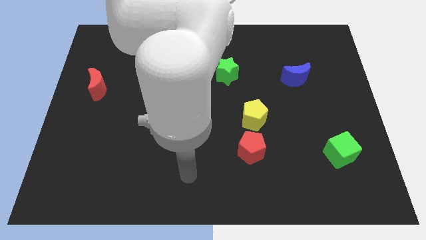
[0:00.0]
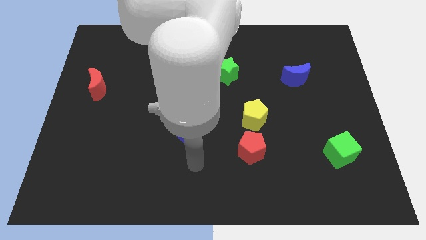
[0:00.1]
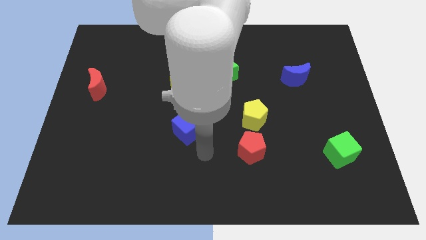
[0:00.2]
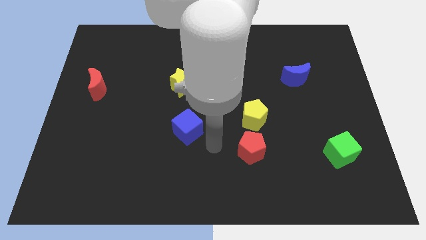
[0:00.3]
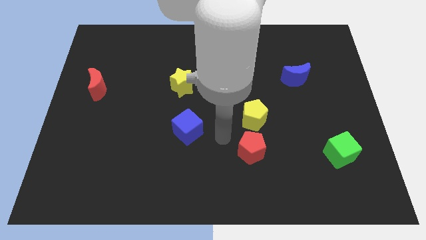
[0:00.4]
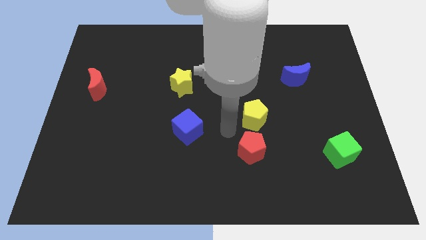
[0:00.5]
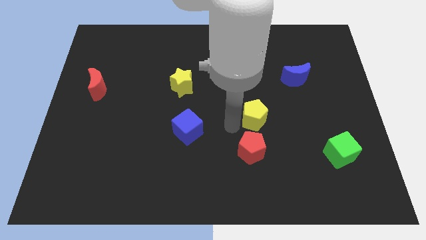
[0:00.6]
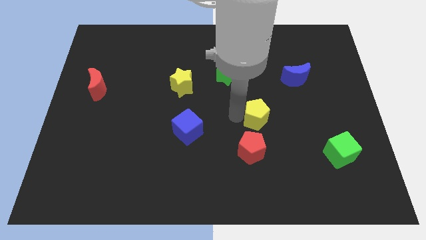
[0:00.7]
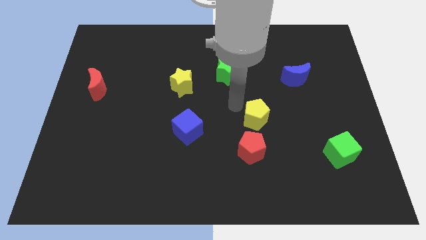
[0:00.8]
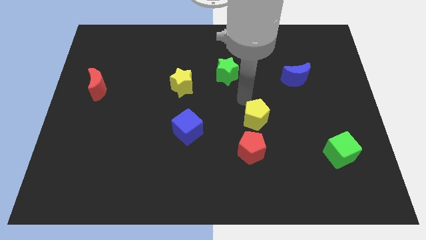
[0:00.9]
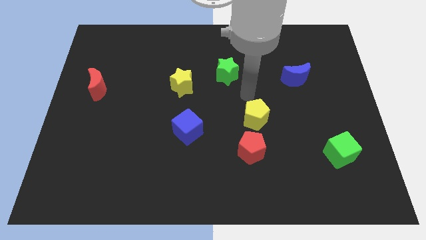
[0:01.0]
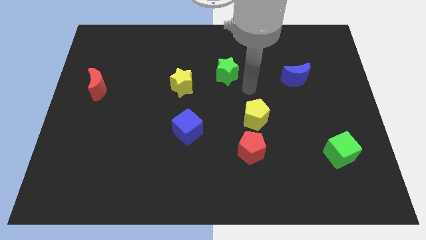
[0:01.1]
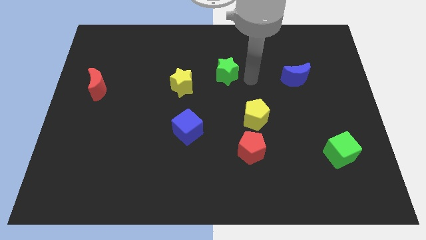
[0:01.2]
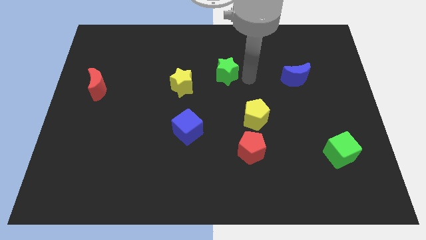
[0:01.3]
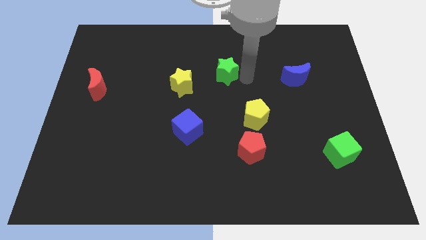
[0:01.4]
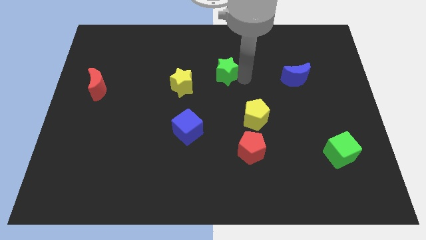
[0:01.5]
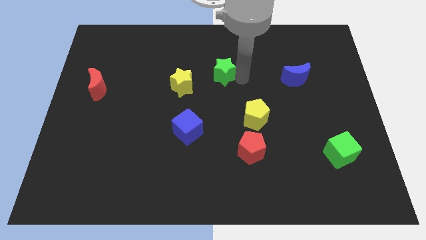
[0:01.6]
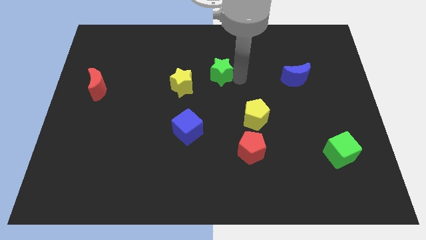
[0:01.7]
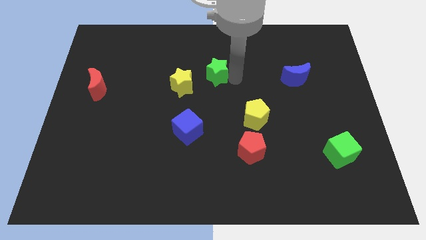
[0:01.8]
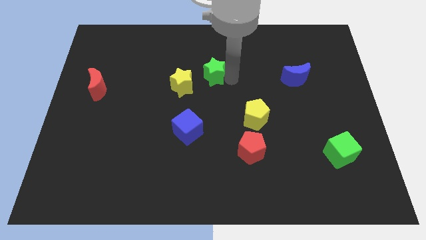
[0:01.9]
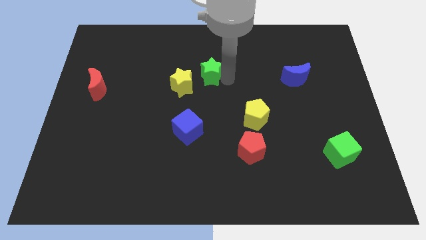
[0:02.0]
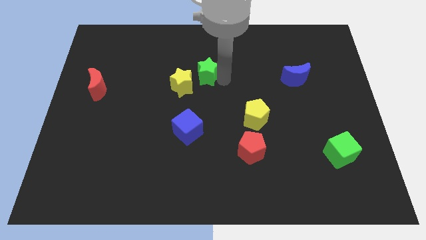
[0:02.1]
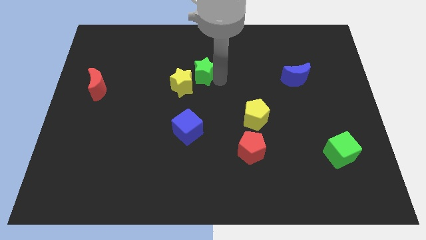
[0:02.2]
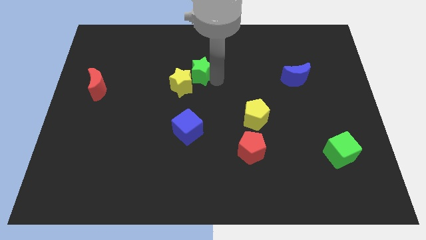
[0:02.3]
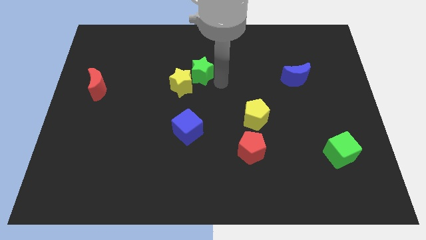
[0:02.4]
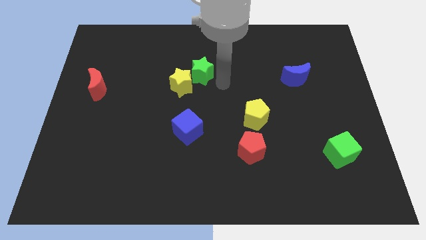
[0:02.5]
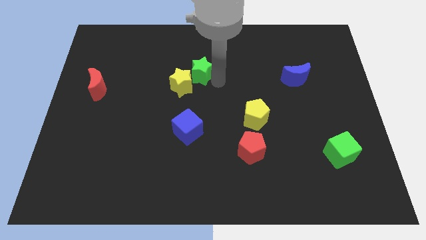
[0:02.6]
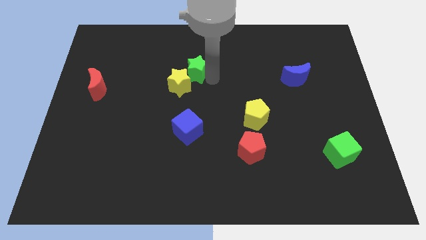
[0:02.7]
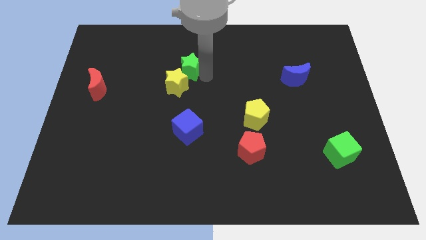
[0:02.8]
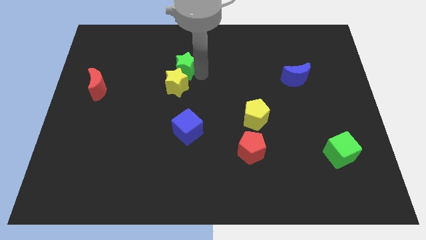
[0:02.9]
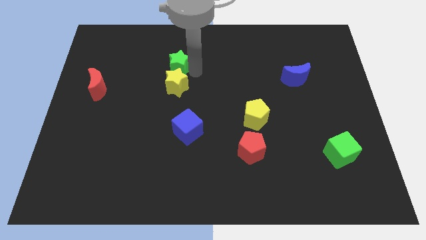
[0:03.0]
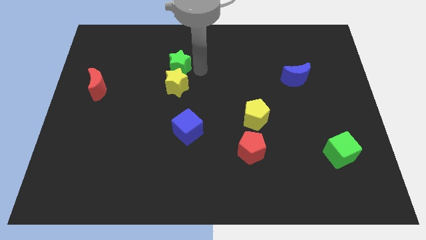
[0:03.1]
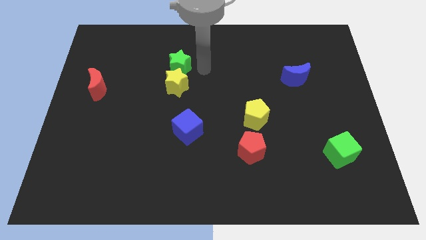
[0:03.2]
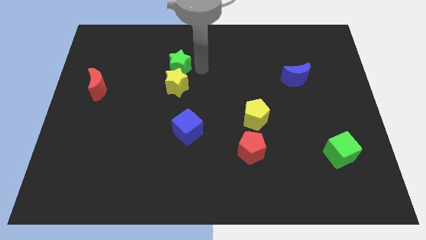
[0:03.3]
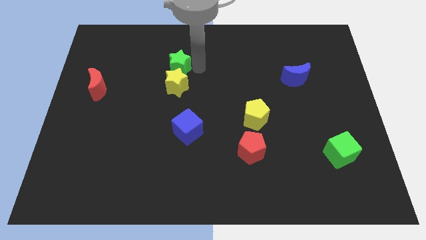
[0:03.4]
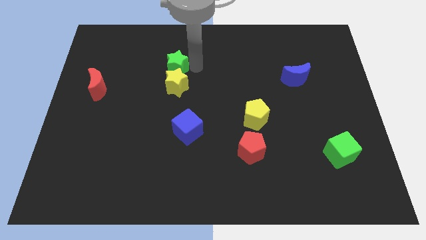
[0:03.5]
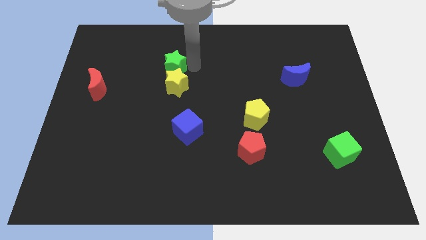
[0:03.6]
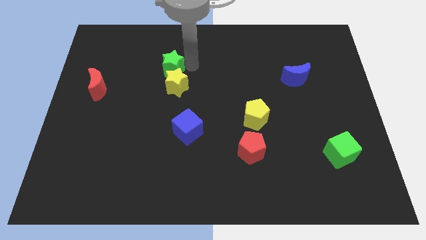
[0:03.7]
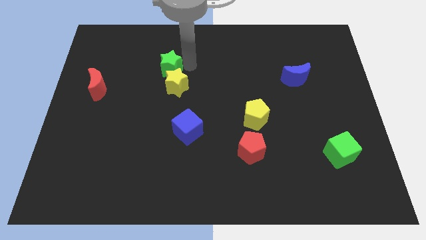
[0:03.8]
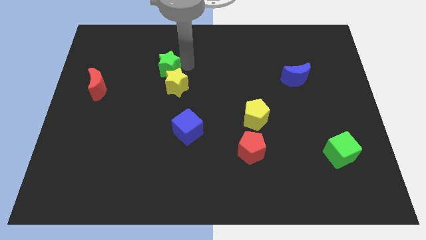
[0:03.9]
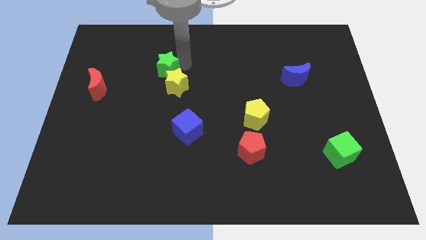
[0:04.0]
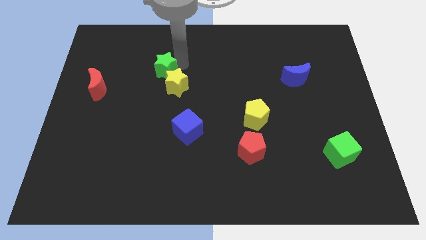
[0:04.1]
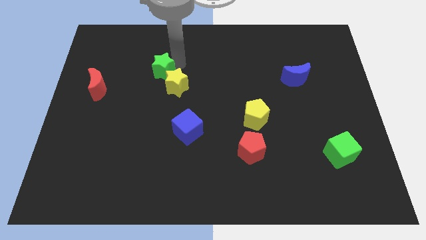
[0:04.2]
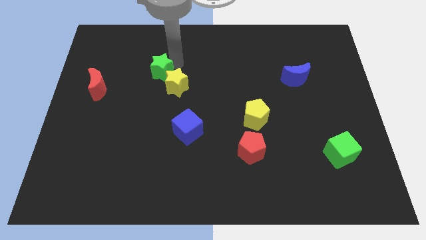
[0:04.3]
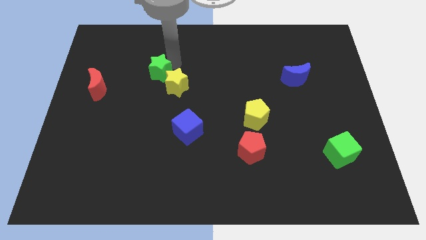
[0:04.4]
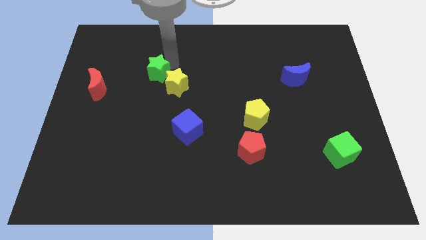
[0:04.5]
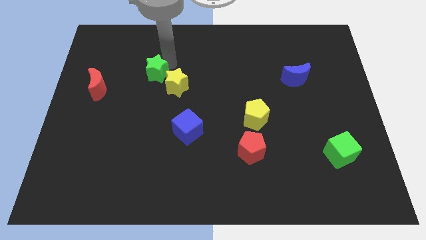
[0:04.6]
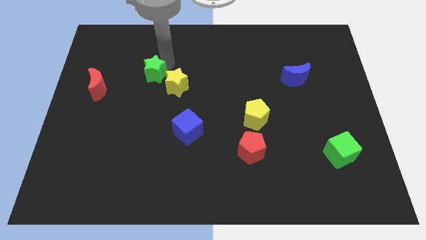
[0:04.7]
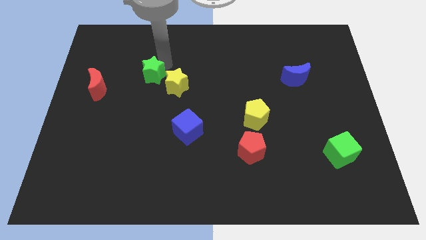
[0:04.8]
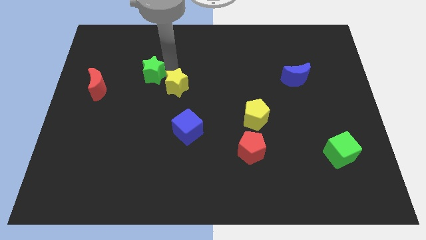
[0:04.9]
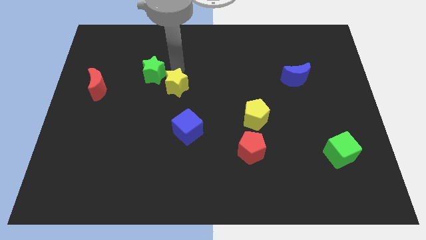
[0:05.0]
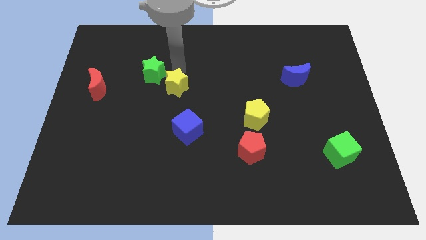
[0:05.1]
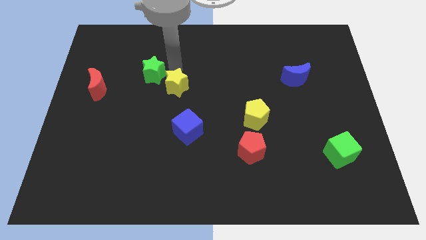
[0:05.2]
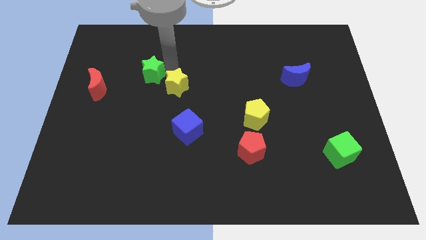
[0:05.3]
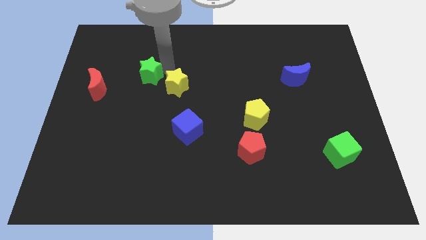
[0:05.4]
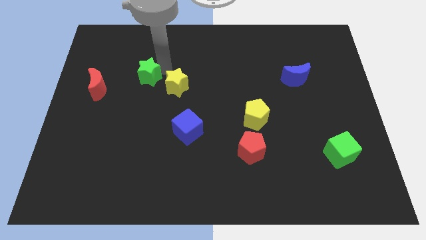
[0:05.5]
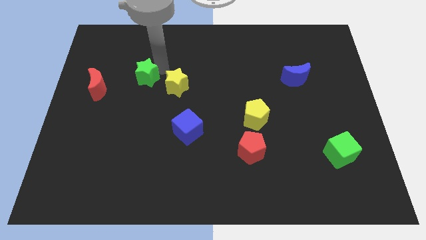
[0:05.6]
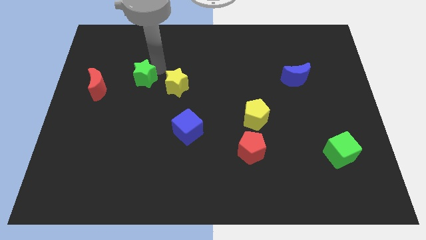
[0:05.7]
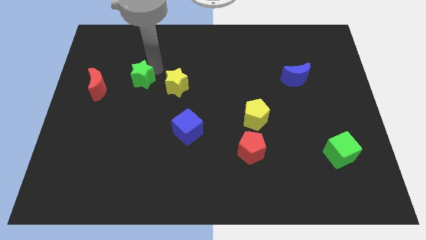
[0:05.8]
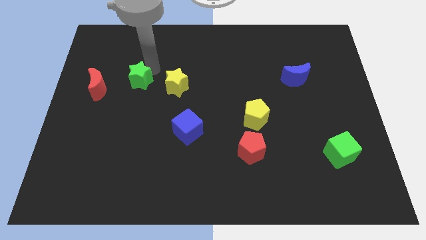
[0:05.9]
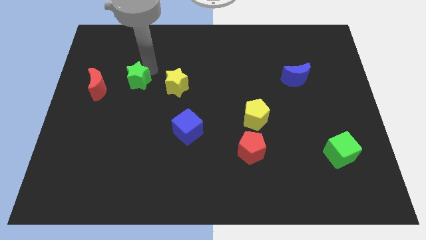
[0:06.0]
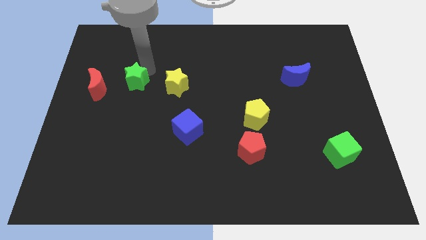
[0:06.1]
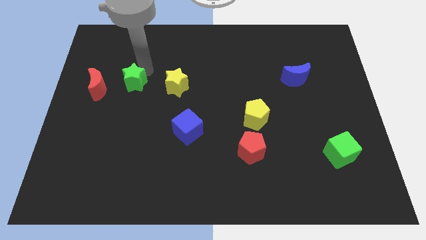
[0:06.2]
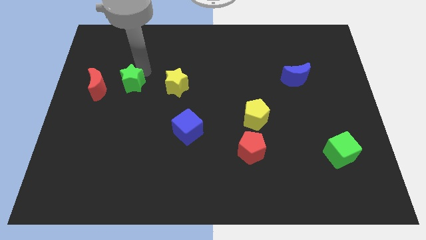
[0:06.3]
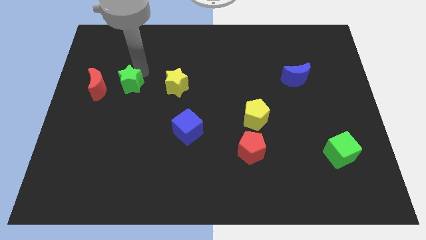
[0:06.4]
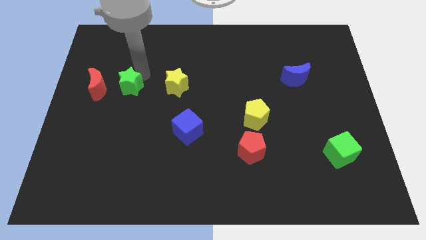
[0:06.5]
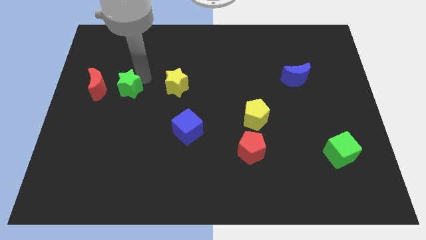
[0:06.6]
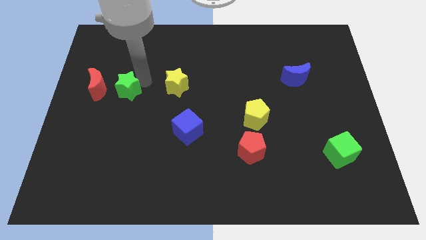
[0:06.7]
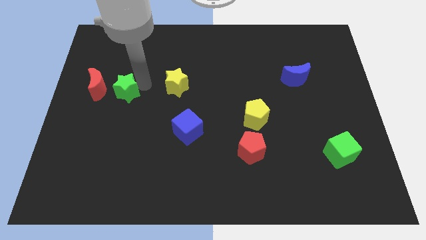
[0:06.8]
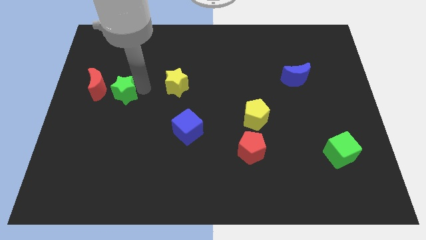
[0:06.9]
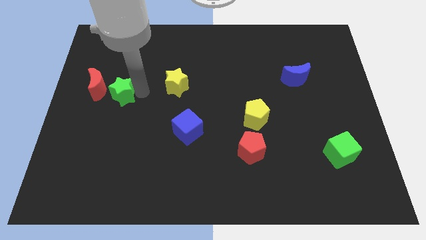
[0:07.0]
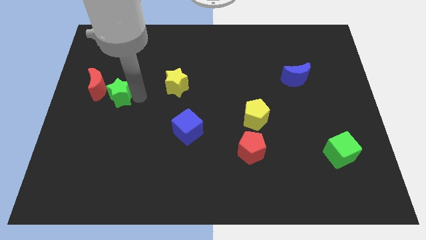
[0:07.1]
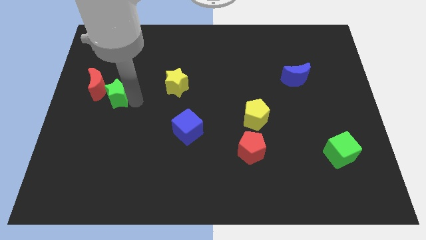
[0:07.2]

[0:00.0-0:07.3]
slide the green star close to the red moon
